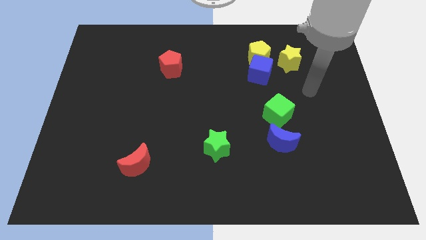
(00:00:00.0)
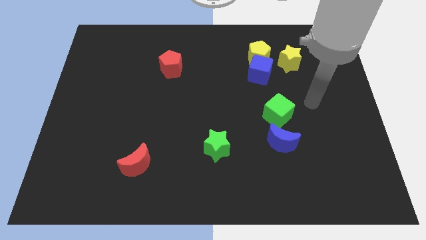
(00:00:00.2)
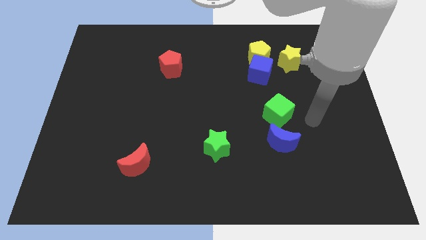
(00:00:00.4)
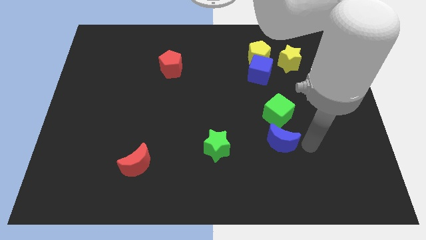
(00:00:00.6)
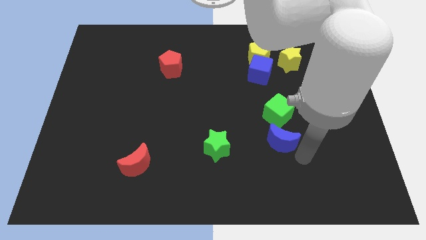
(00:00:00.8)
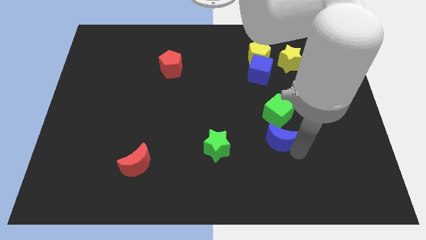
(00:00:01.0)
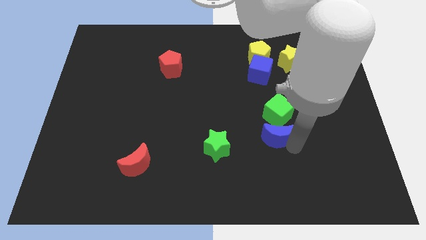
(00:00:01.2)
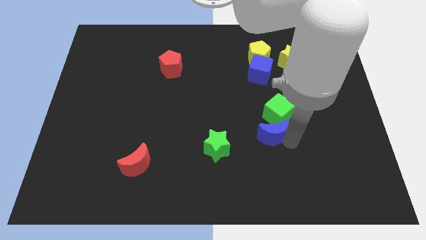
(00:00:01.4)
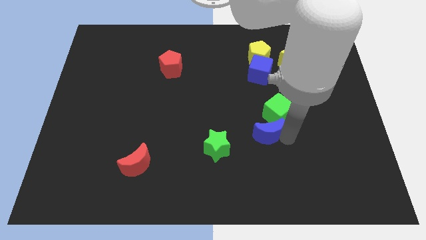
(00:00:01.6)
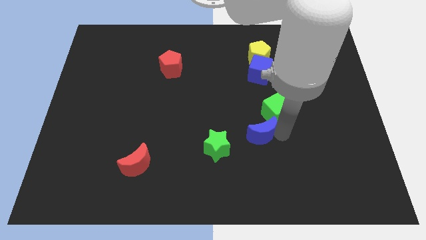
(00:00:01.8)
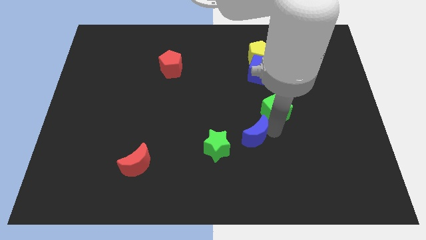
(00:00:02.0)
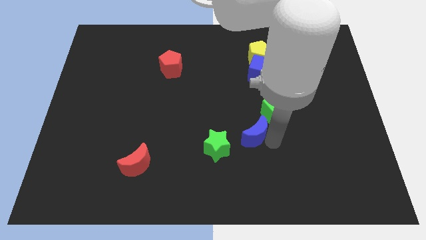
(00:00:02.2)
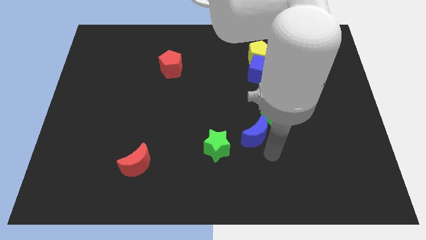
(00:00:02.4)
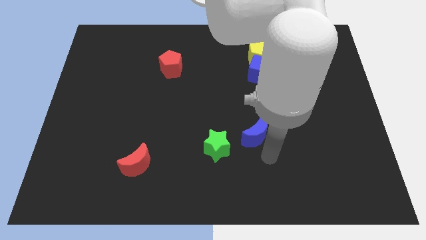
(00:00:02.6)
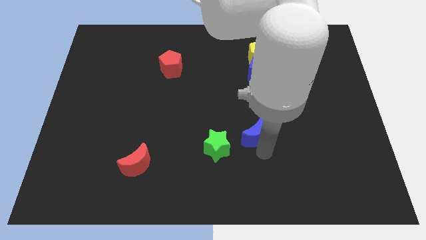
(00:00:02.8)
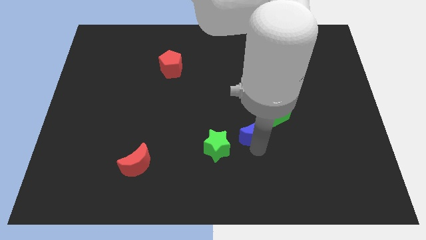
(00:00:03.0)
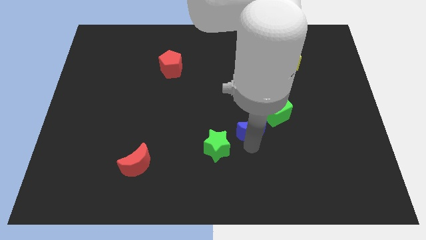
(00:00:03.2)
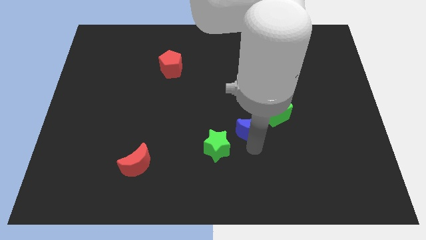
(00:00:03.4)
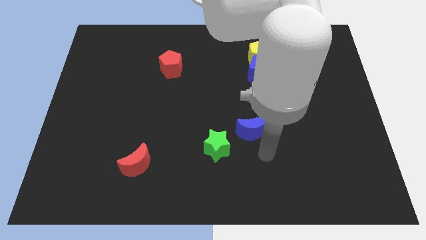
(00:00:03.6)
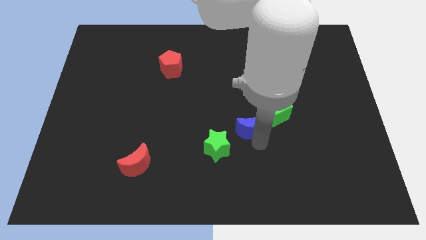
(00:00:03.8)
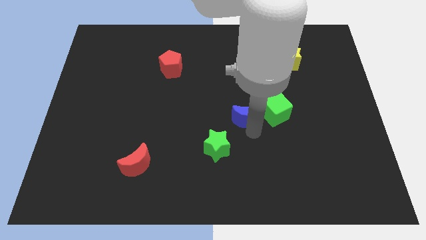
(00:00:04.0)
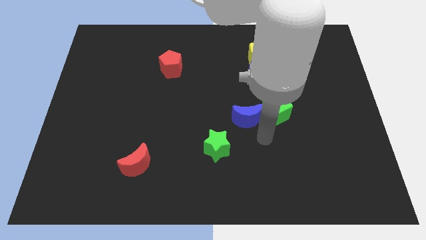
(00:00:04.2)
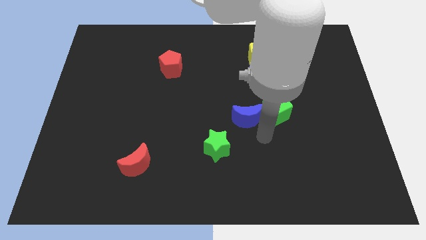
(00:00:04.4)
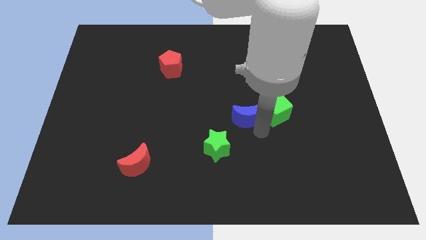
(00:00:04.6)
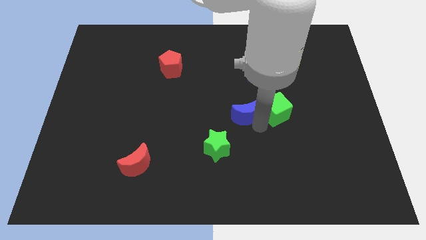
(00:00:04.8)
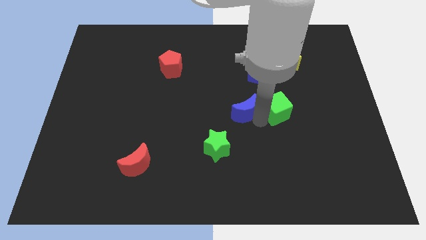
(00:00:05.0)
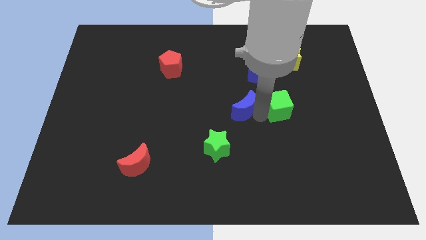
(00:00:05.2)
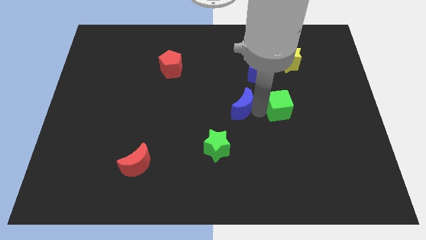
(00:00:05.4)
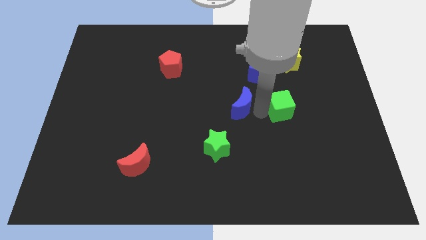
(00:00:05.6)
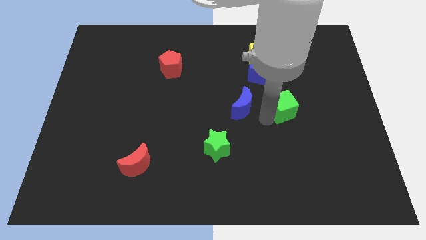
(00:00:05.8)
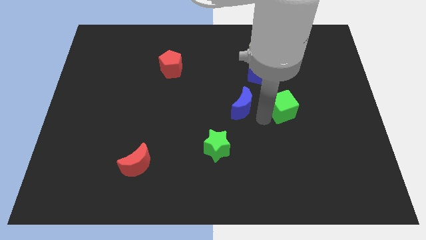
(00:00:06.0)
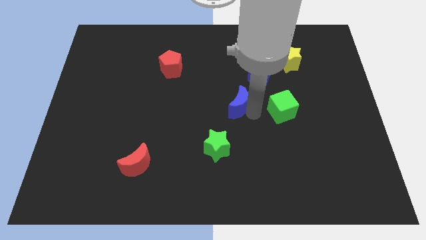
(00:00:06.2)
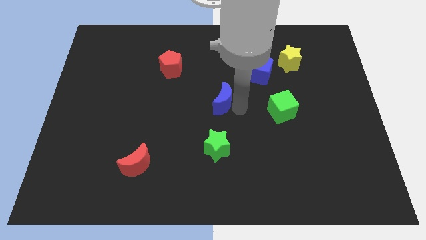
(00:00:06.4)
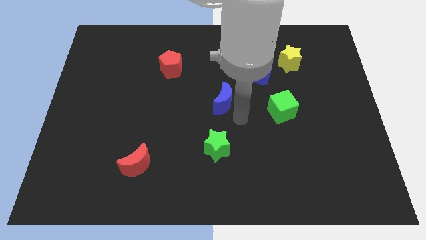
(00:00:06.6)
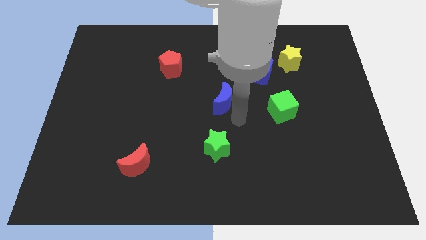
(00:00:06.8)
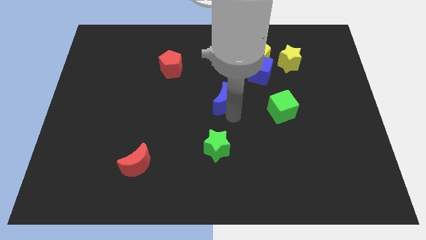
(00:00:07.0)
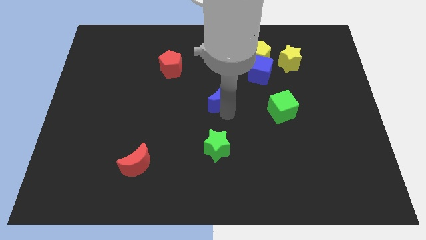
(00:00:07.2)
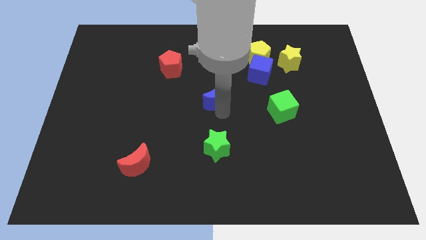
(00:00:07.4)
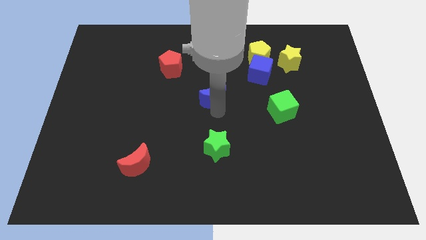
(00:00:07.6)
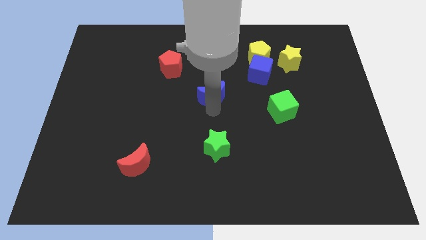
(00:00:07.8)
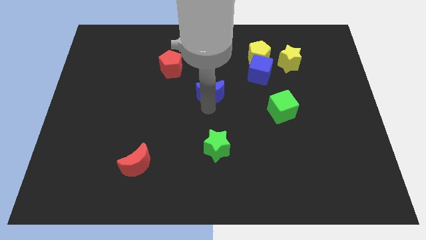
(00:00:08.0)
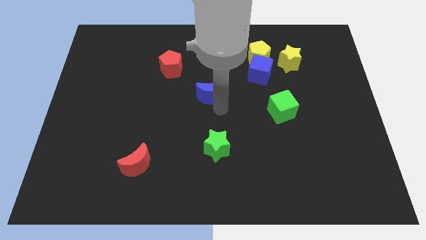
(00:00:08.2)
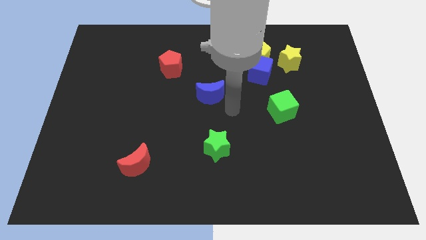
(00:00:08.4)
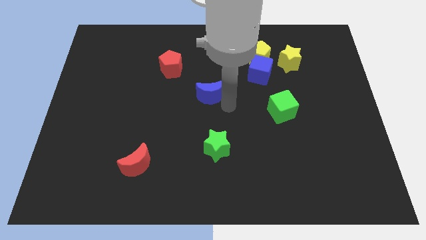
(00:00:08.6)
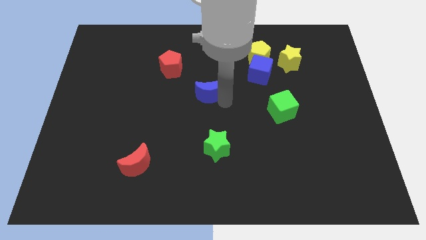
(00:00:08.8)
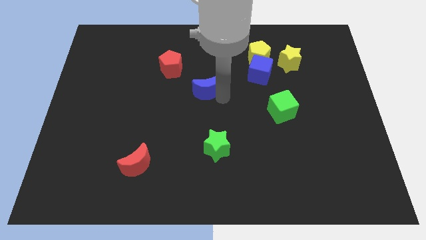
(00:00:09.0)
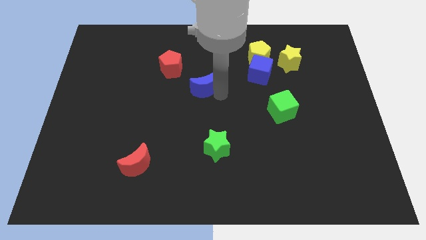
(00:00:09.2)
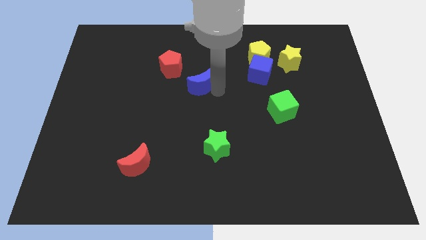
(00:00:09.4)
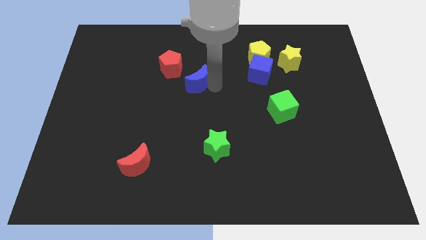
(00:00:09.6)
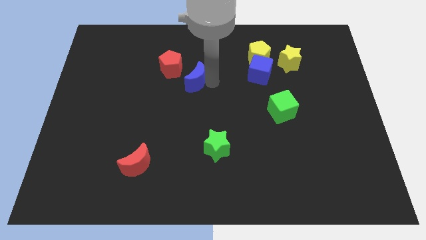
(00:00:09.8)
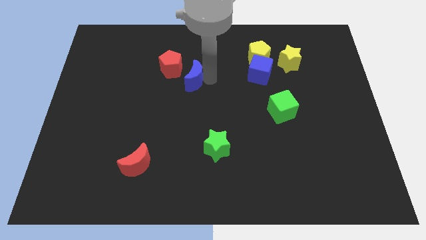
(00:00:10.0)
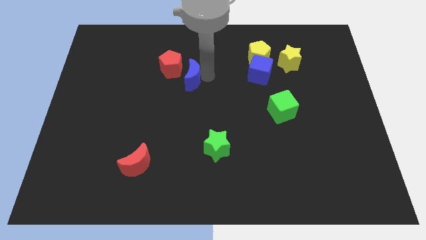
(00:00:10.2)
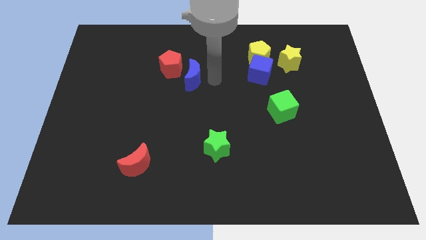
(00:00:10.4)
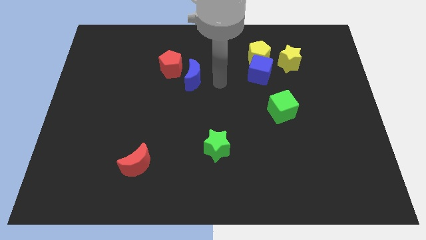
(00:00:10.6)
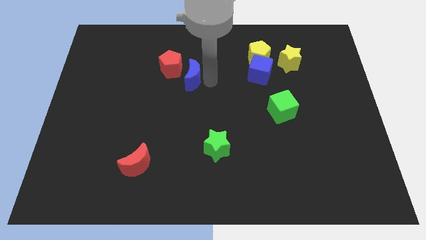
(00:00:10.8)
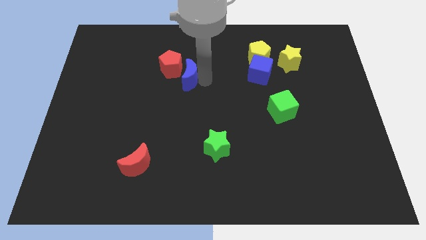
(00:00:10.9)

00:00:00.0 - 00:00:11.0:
push the blue moon close to the red pentagon

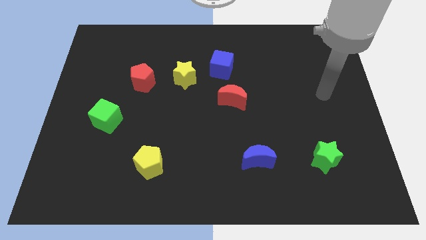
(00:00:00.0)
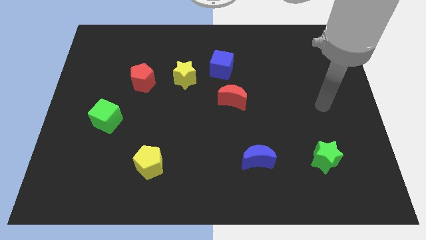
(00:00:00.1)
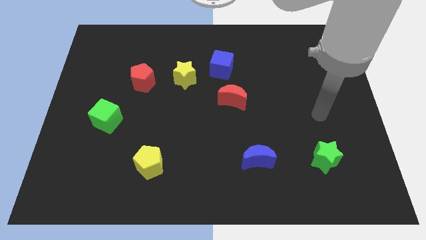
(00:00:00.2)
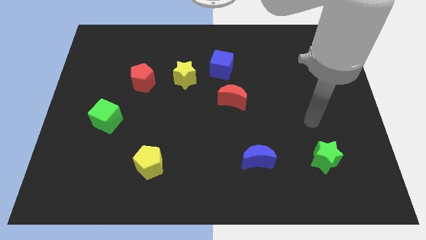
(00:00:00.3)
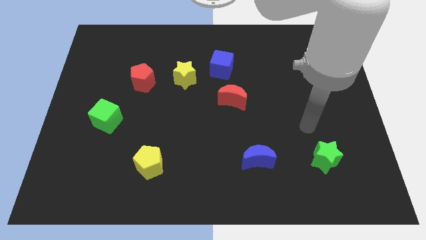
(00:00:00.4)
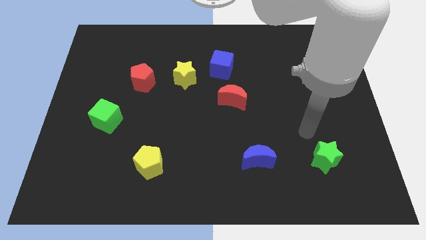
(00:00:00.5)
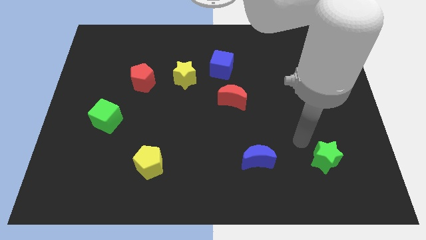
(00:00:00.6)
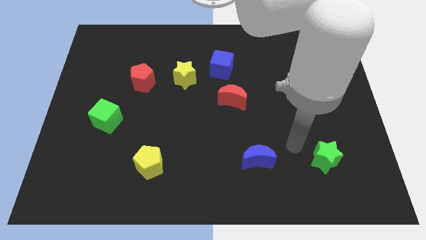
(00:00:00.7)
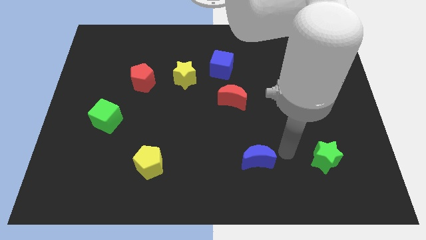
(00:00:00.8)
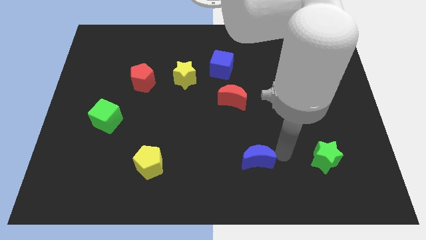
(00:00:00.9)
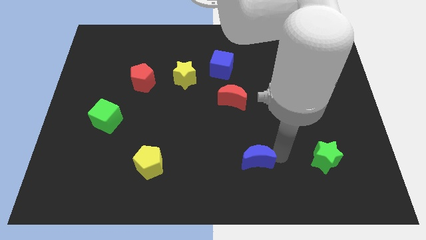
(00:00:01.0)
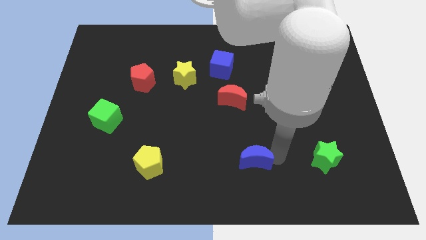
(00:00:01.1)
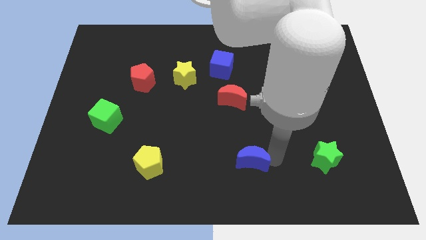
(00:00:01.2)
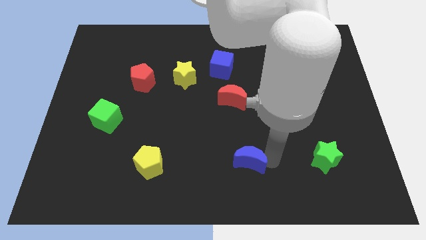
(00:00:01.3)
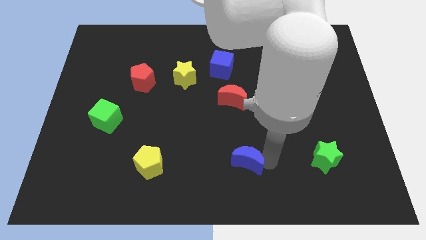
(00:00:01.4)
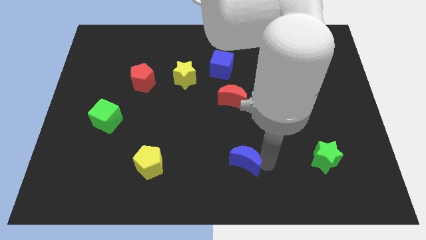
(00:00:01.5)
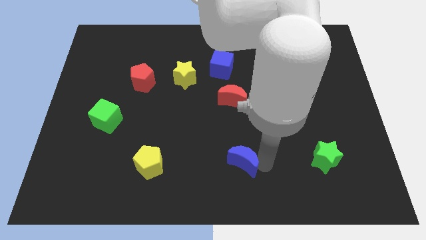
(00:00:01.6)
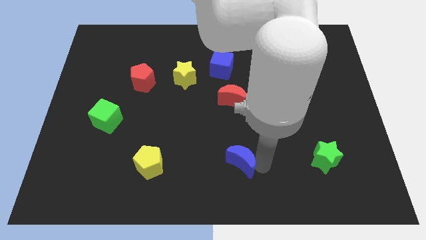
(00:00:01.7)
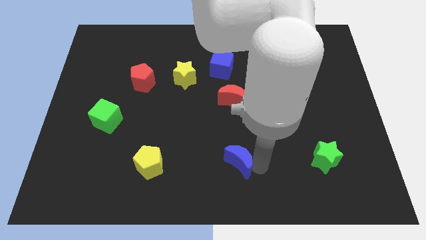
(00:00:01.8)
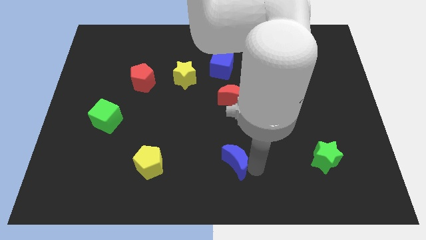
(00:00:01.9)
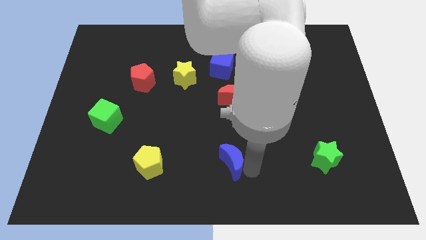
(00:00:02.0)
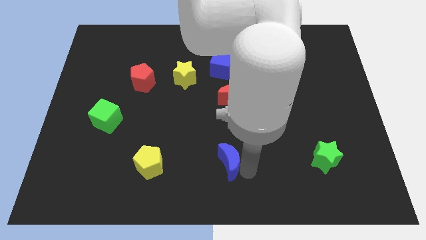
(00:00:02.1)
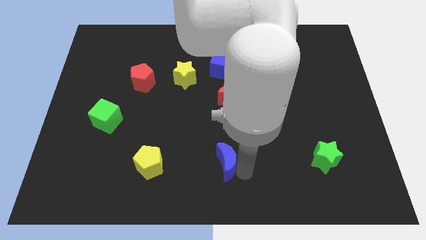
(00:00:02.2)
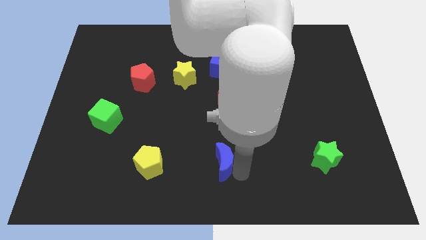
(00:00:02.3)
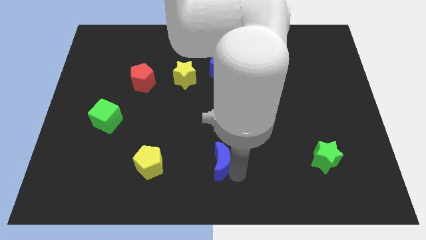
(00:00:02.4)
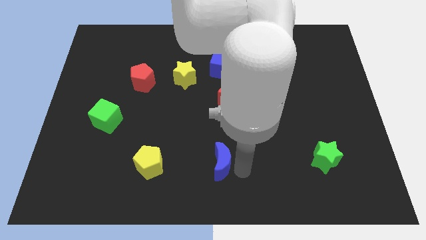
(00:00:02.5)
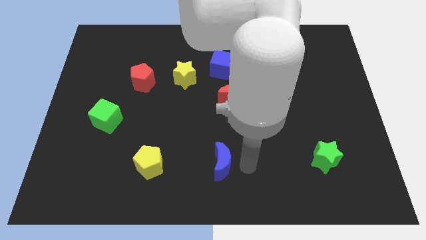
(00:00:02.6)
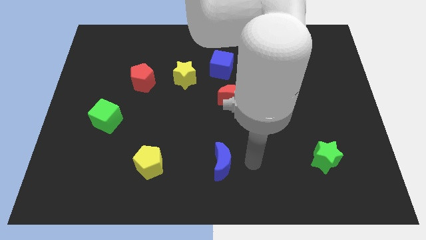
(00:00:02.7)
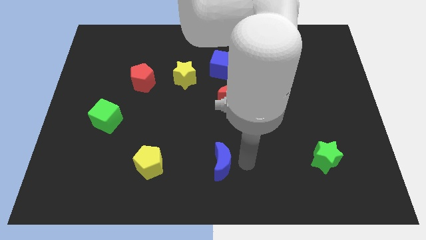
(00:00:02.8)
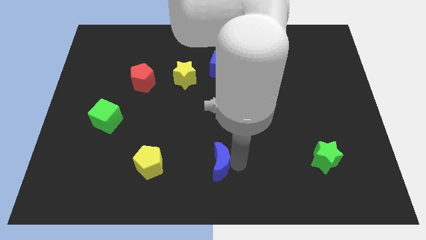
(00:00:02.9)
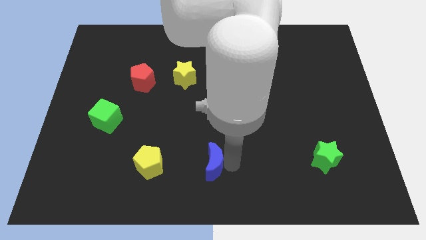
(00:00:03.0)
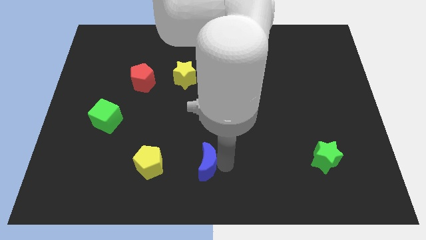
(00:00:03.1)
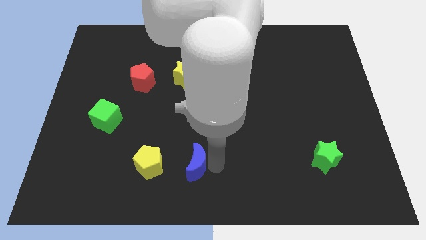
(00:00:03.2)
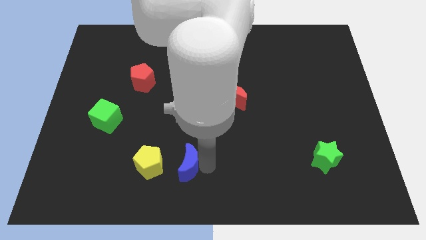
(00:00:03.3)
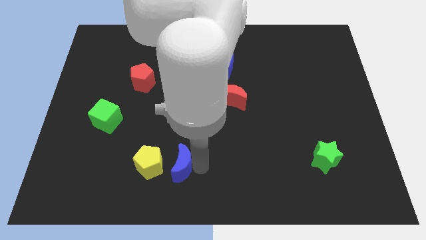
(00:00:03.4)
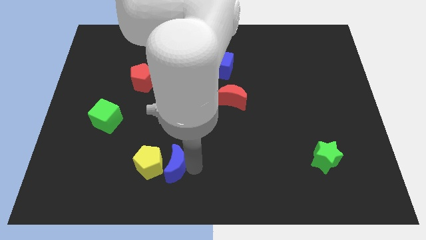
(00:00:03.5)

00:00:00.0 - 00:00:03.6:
put the blue moon close to the yellow pentagon
